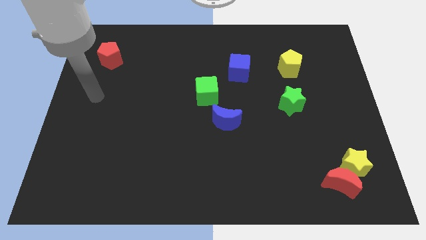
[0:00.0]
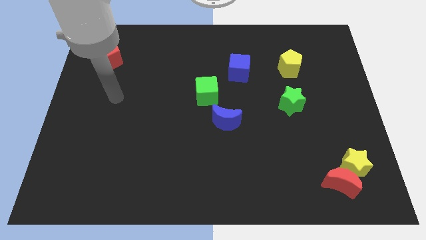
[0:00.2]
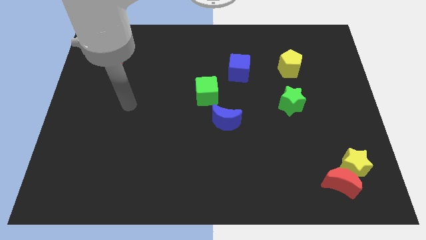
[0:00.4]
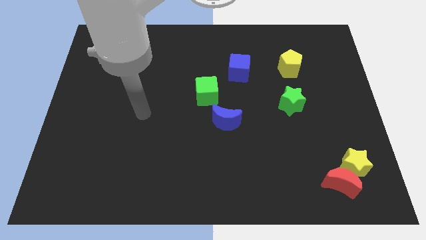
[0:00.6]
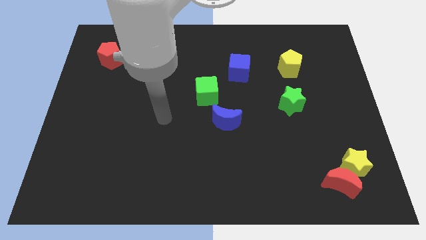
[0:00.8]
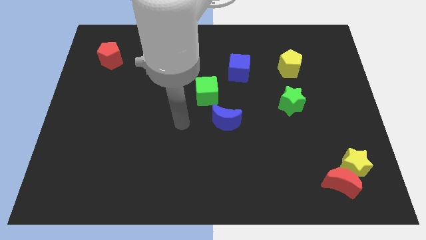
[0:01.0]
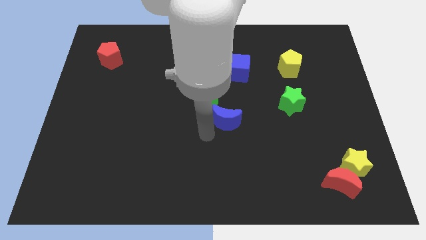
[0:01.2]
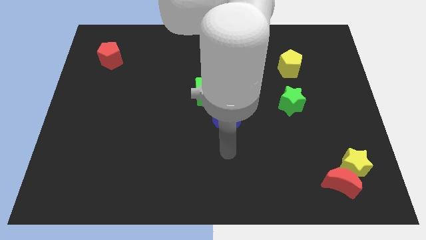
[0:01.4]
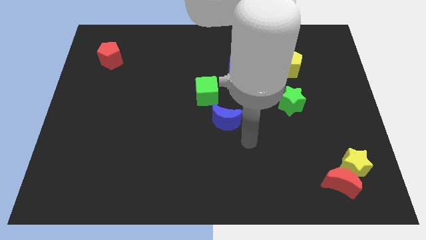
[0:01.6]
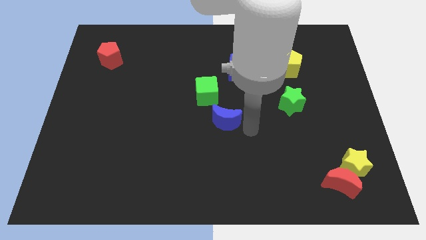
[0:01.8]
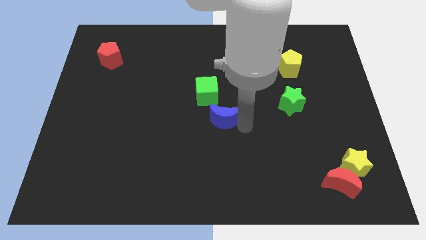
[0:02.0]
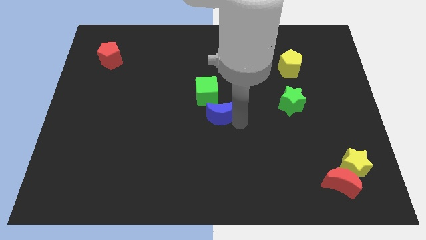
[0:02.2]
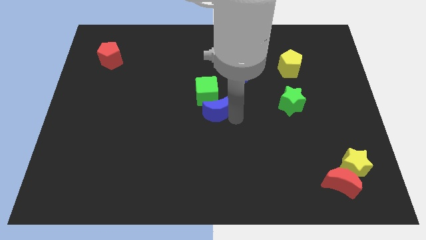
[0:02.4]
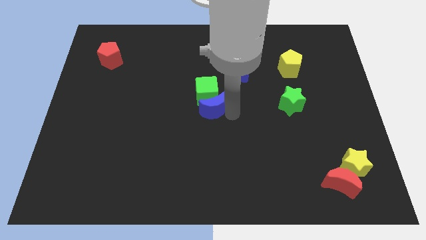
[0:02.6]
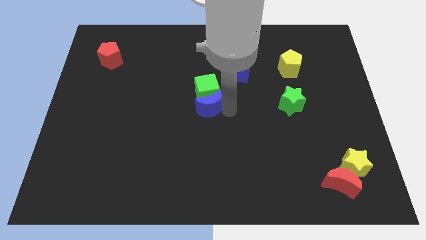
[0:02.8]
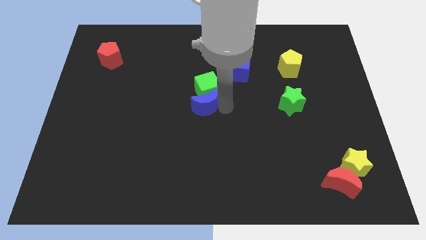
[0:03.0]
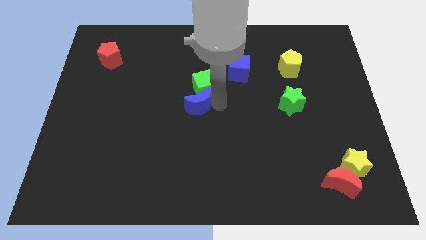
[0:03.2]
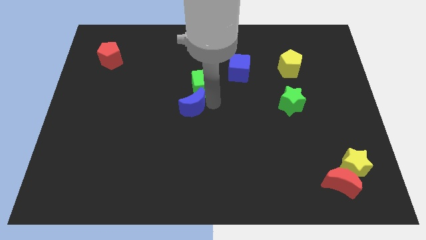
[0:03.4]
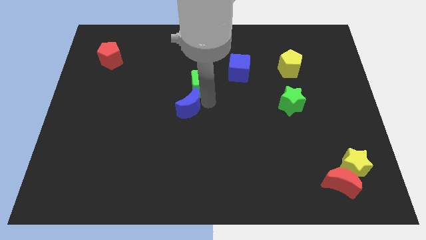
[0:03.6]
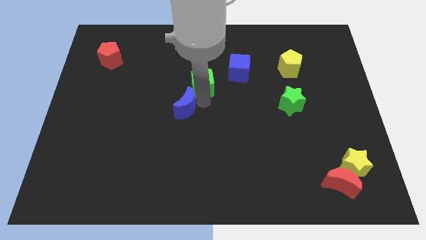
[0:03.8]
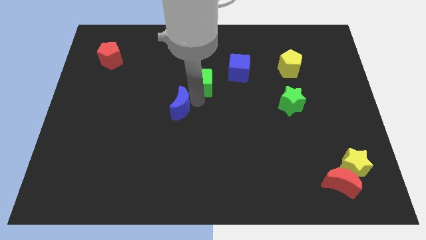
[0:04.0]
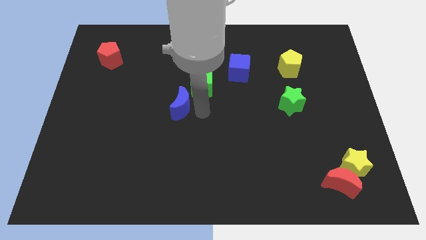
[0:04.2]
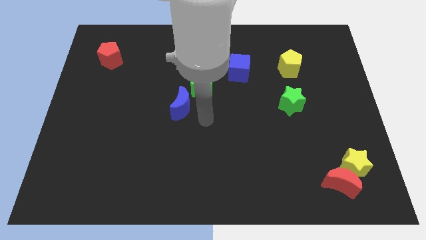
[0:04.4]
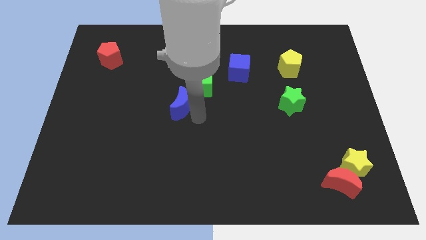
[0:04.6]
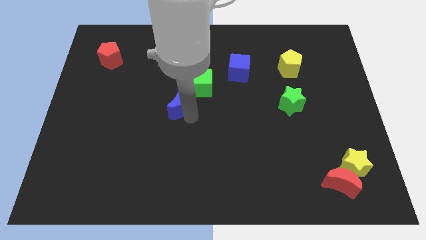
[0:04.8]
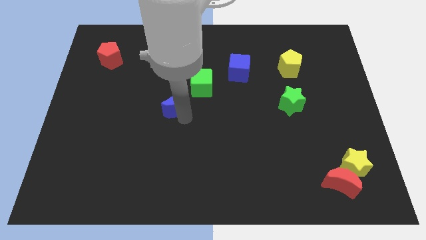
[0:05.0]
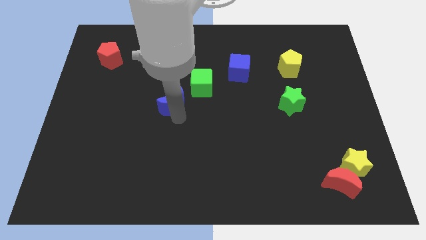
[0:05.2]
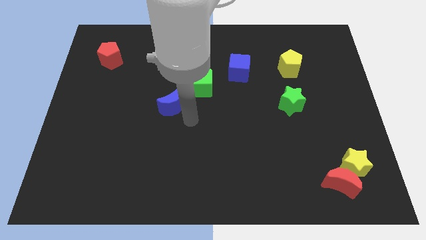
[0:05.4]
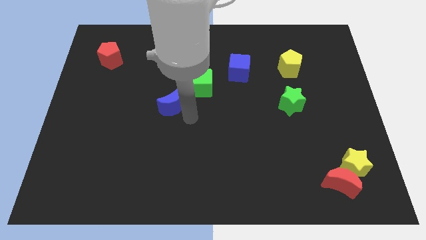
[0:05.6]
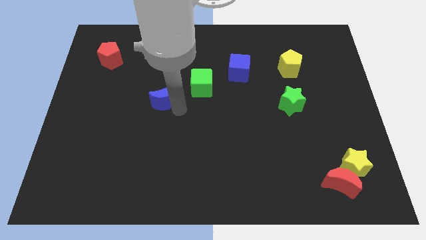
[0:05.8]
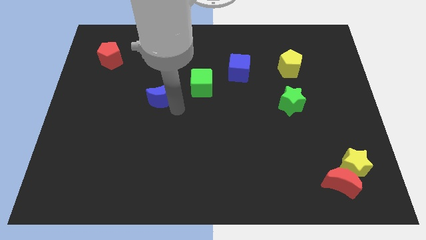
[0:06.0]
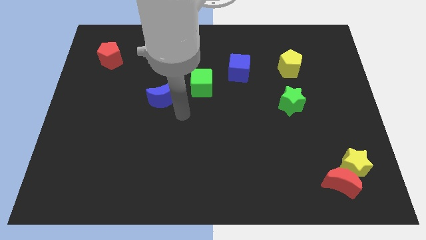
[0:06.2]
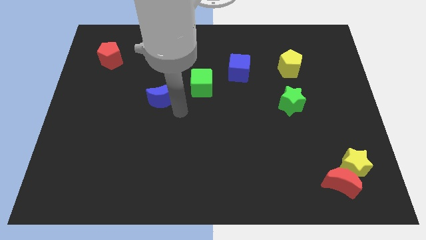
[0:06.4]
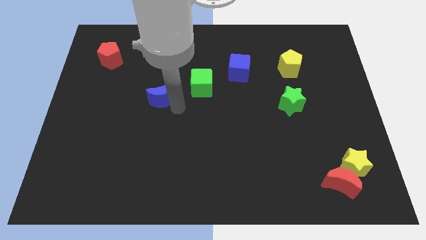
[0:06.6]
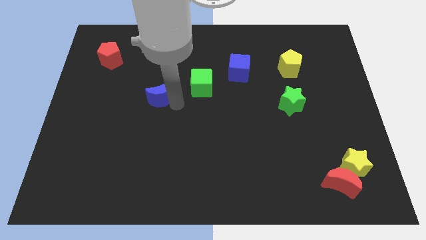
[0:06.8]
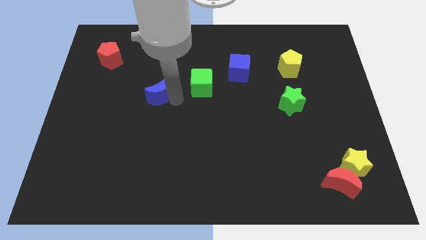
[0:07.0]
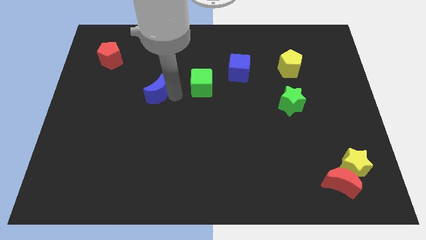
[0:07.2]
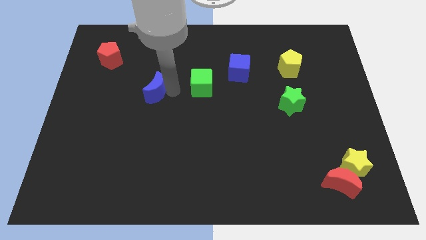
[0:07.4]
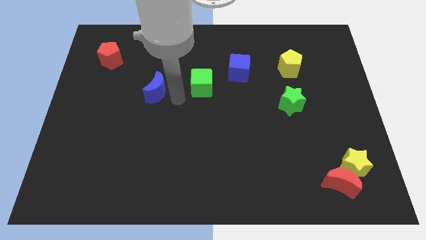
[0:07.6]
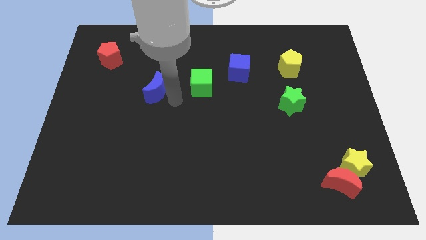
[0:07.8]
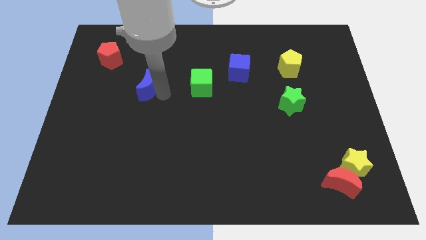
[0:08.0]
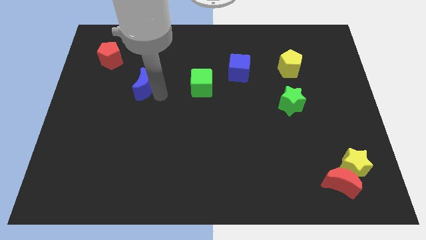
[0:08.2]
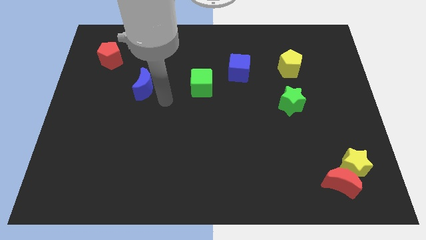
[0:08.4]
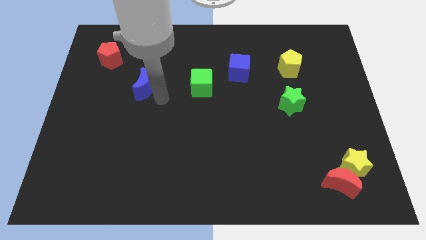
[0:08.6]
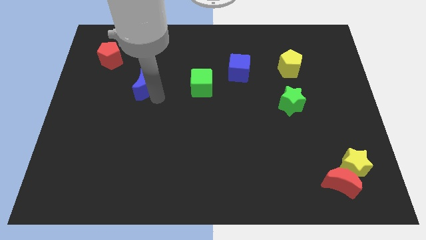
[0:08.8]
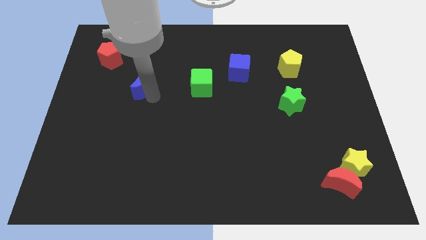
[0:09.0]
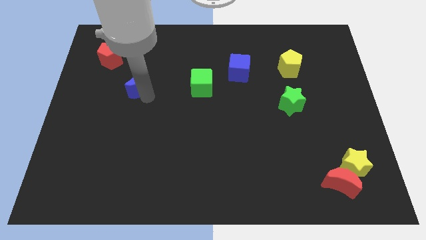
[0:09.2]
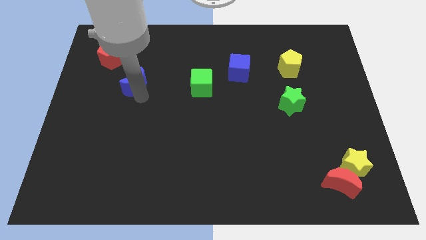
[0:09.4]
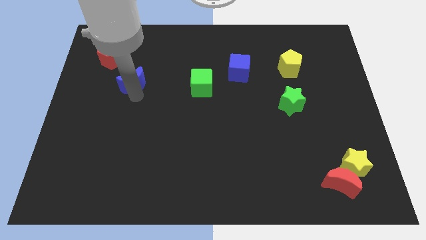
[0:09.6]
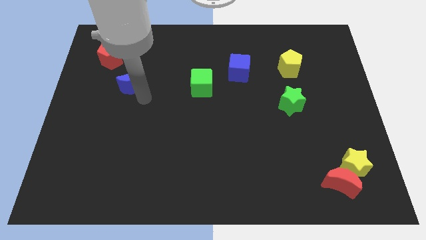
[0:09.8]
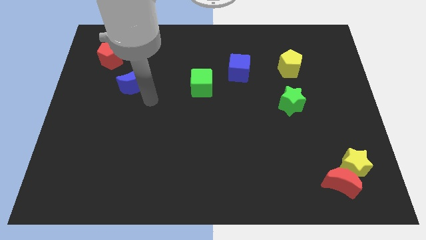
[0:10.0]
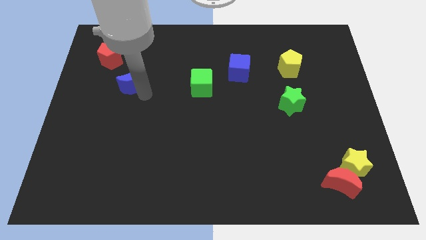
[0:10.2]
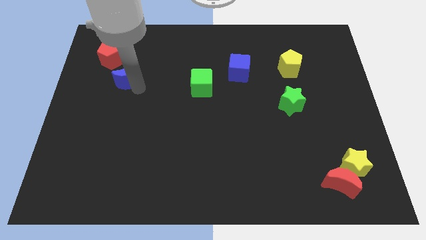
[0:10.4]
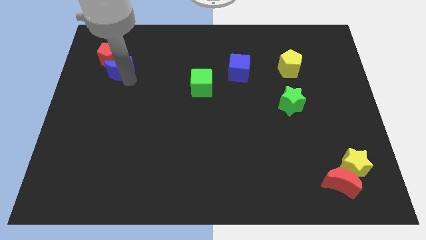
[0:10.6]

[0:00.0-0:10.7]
slide the blue moon to the red pentagon

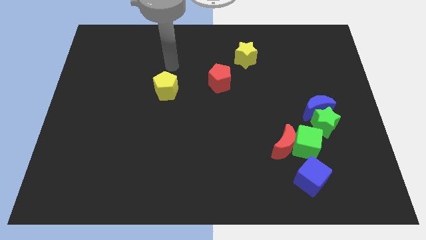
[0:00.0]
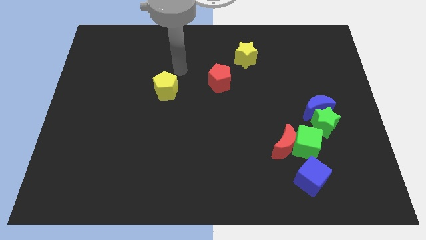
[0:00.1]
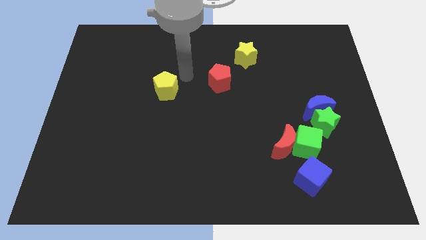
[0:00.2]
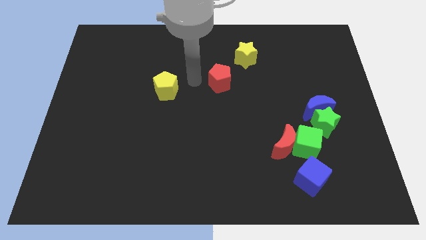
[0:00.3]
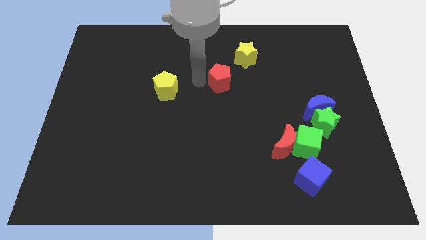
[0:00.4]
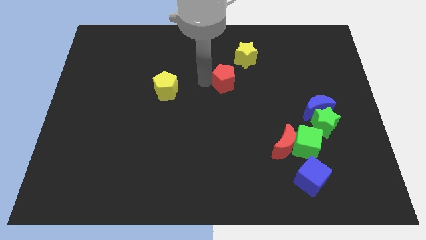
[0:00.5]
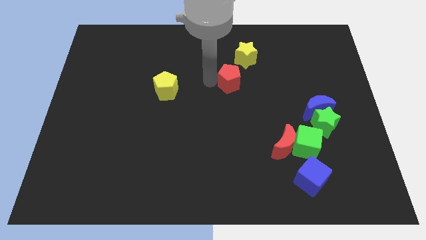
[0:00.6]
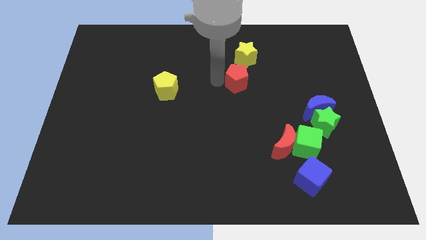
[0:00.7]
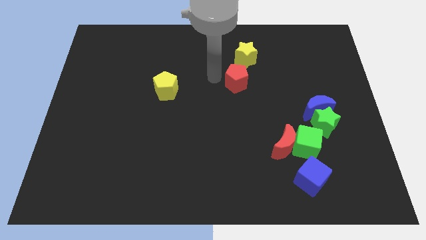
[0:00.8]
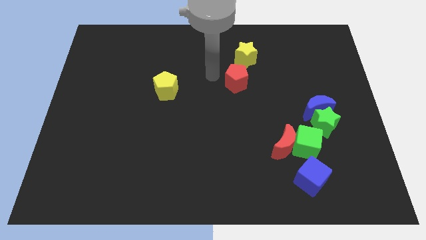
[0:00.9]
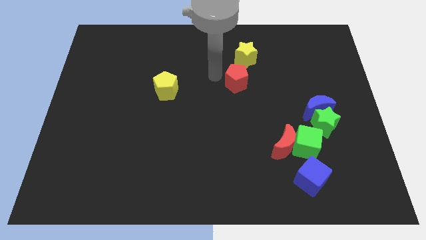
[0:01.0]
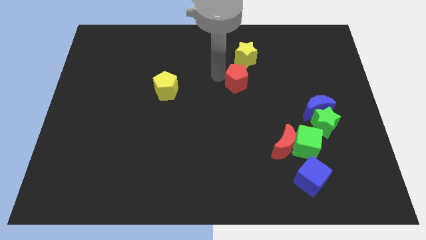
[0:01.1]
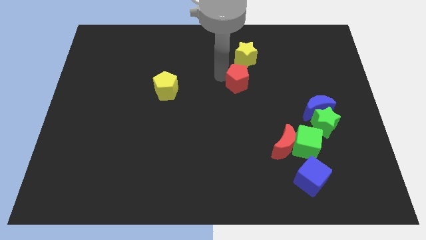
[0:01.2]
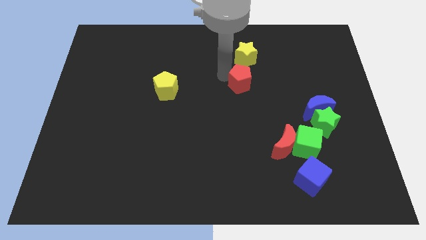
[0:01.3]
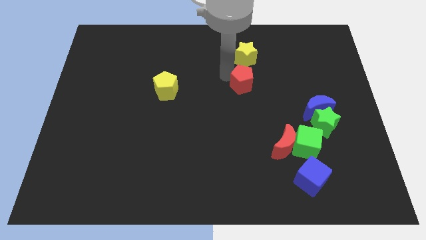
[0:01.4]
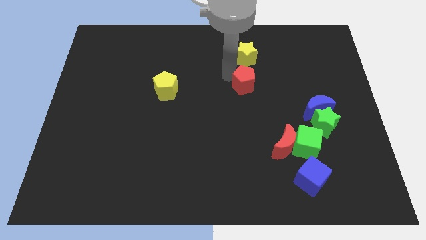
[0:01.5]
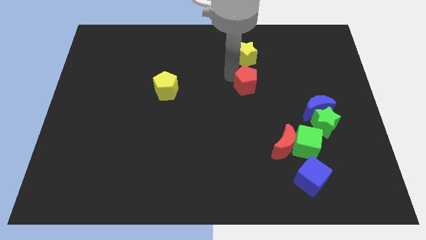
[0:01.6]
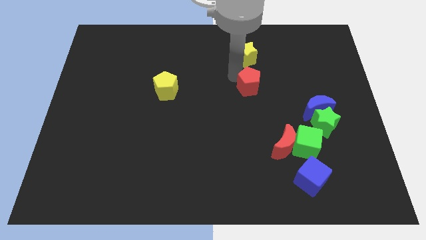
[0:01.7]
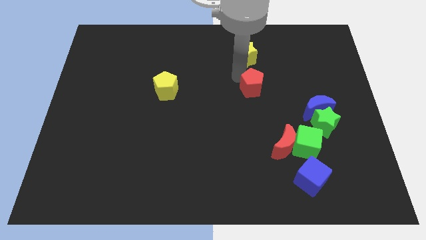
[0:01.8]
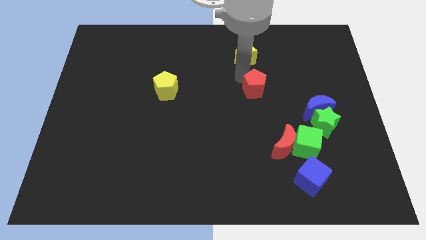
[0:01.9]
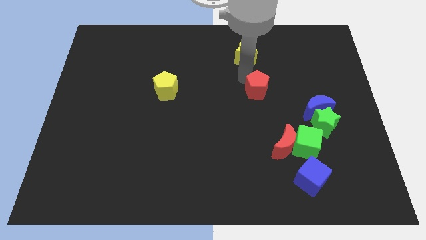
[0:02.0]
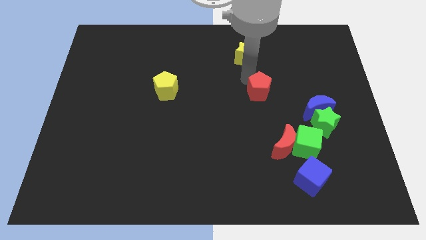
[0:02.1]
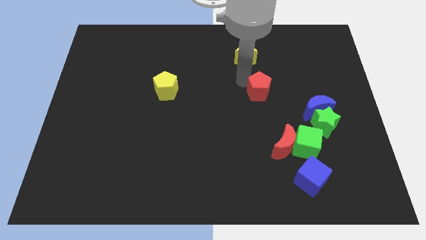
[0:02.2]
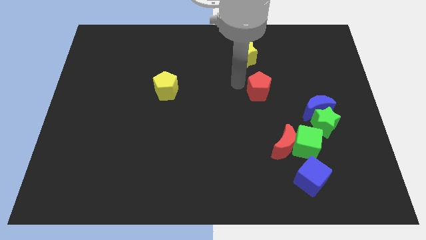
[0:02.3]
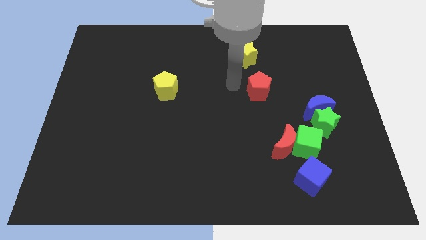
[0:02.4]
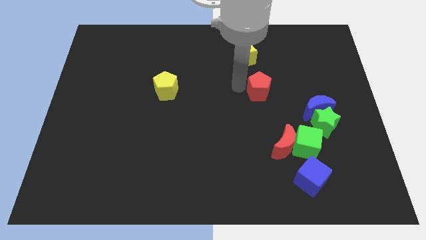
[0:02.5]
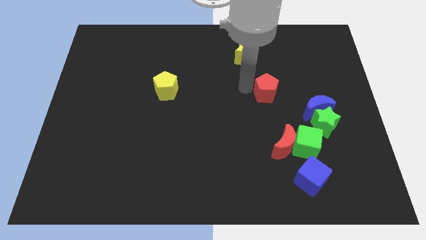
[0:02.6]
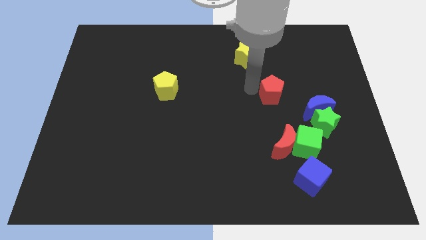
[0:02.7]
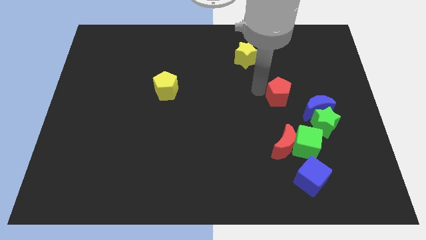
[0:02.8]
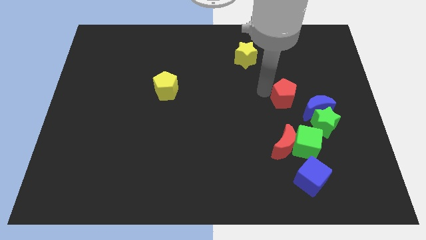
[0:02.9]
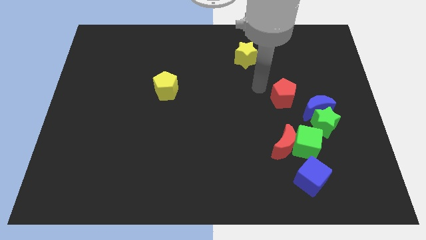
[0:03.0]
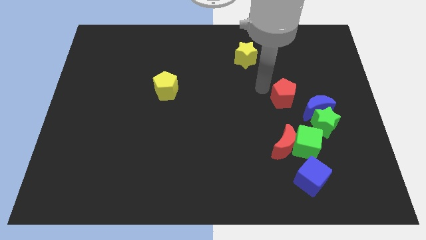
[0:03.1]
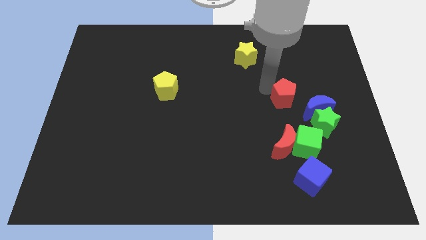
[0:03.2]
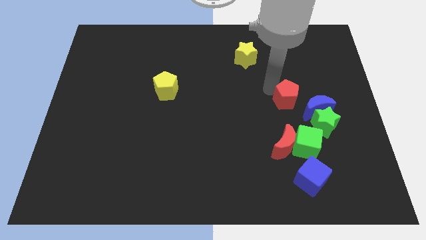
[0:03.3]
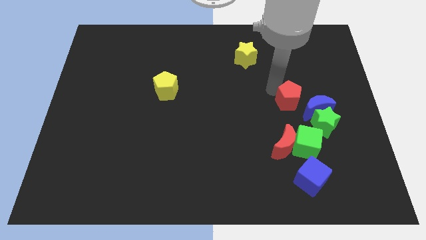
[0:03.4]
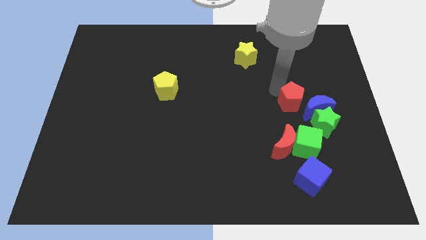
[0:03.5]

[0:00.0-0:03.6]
slide the red pentagon next to the blue moon
